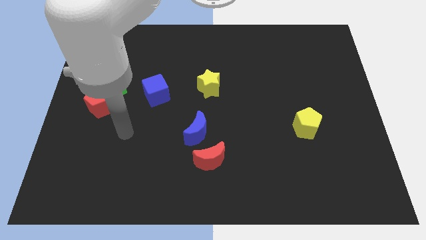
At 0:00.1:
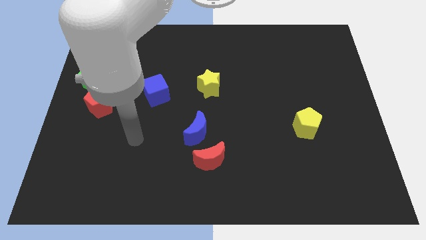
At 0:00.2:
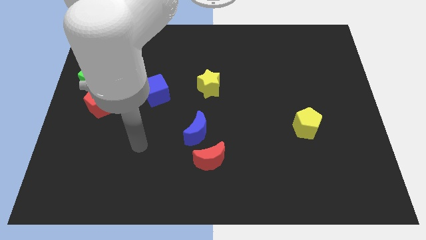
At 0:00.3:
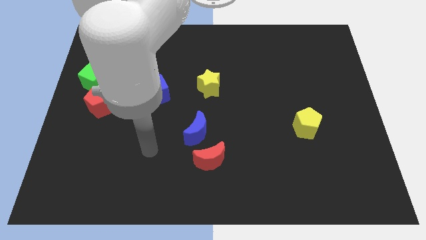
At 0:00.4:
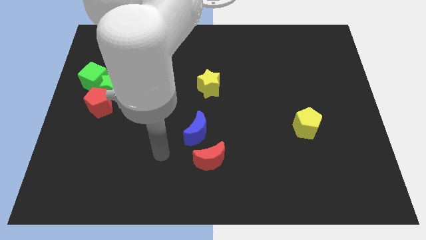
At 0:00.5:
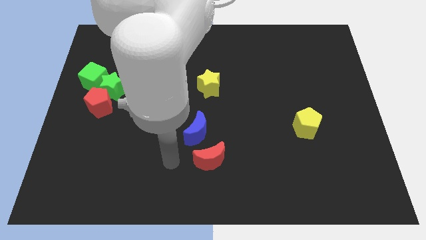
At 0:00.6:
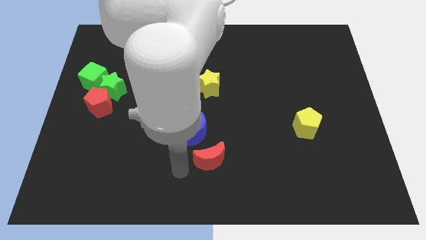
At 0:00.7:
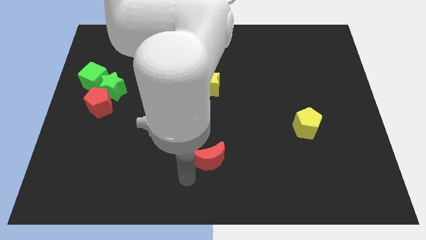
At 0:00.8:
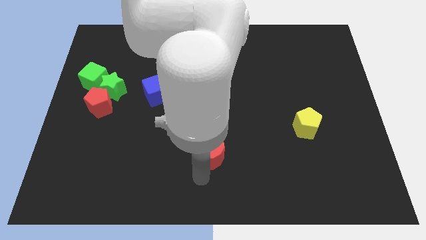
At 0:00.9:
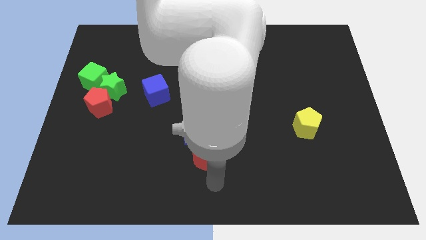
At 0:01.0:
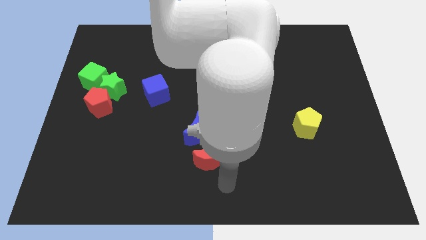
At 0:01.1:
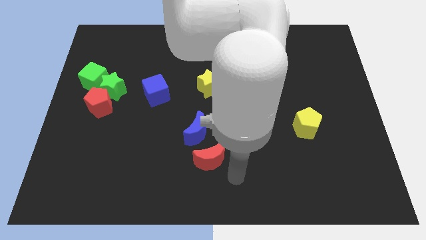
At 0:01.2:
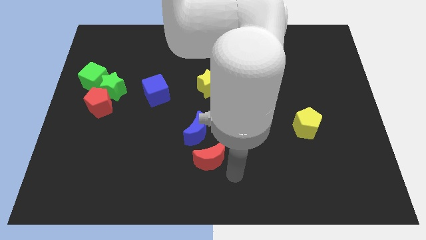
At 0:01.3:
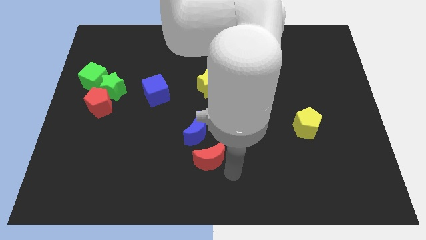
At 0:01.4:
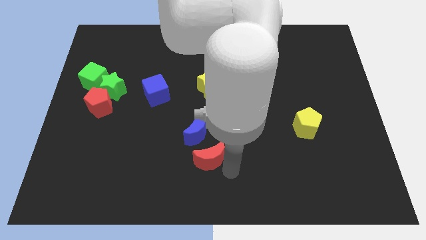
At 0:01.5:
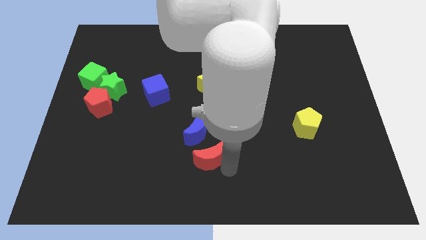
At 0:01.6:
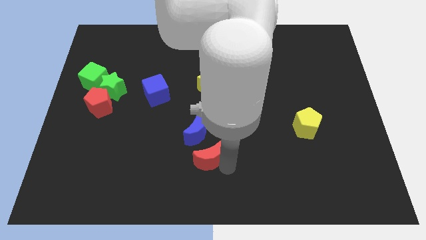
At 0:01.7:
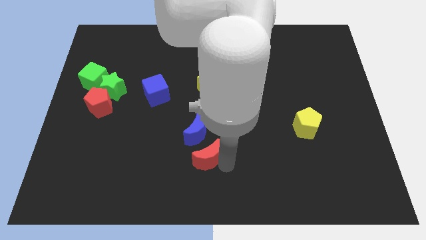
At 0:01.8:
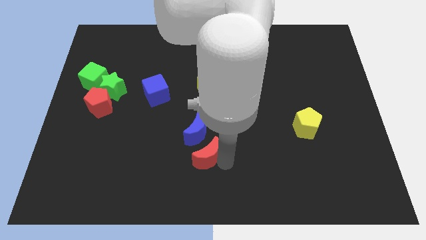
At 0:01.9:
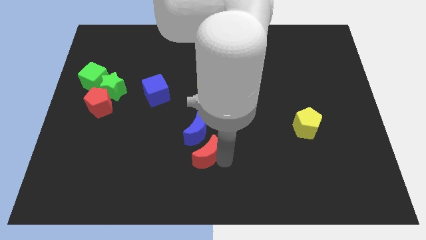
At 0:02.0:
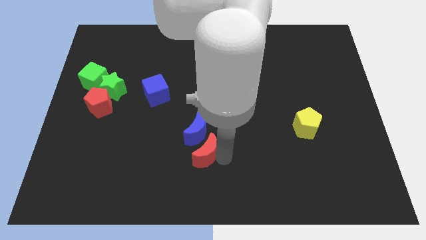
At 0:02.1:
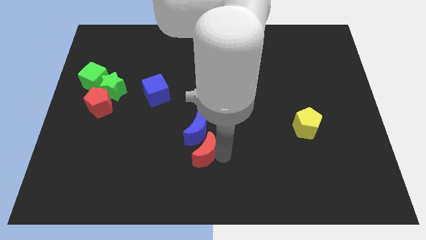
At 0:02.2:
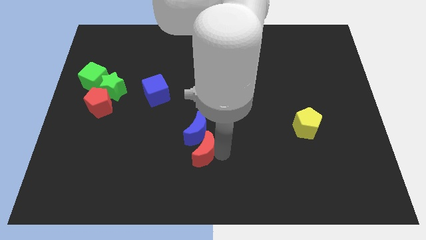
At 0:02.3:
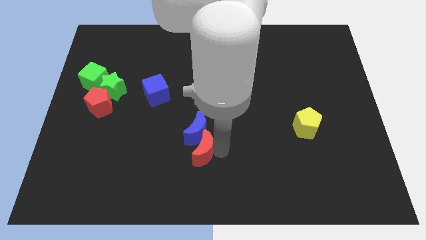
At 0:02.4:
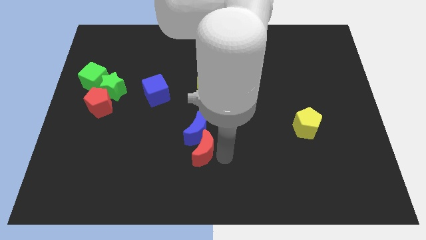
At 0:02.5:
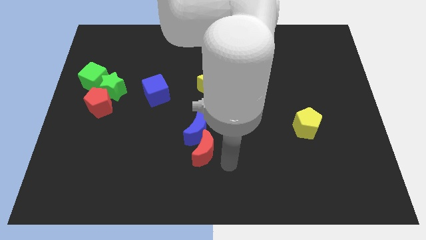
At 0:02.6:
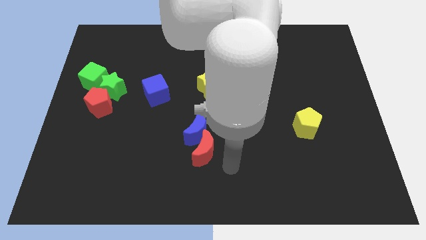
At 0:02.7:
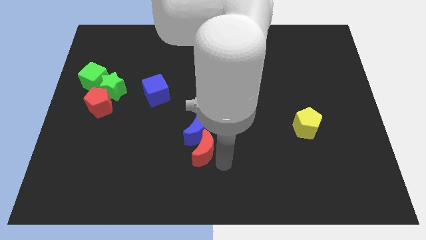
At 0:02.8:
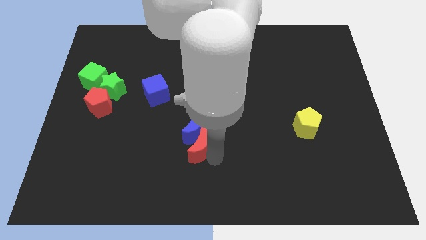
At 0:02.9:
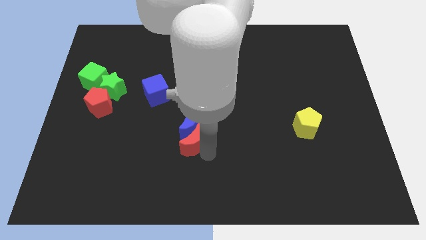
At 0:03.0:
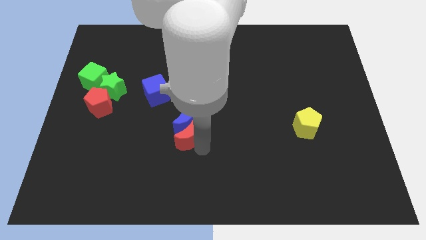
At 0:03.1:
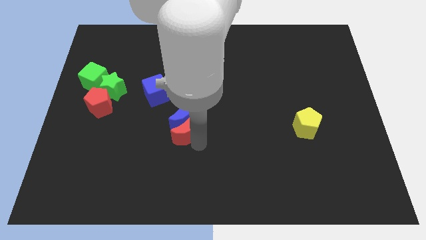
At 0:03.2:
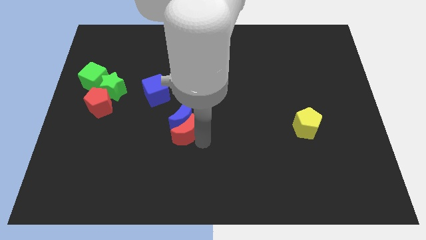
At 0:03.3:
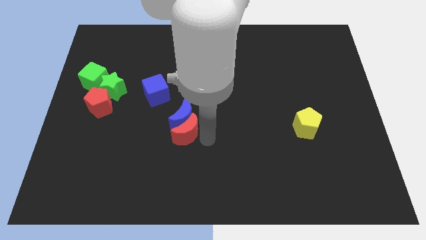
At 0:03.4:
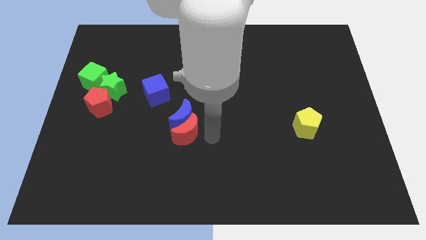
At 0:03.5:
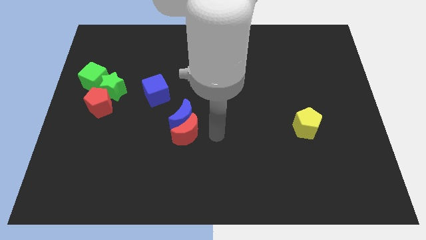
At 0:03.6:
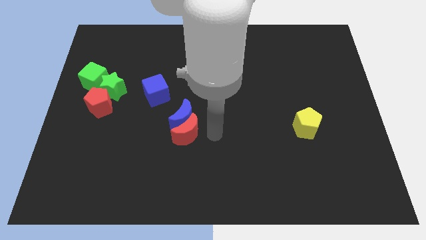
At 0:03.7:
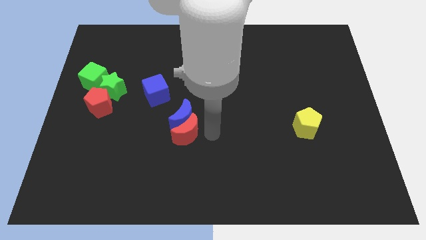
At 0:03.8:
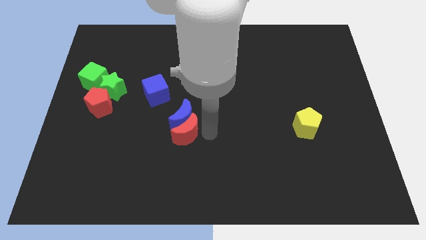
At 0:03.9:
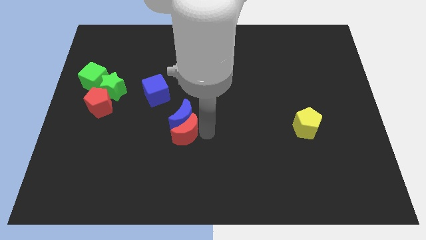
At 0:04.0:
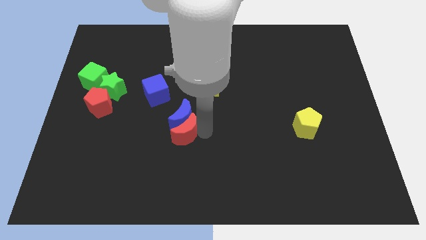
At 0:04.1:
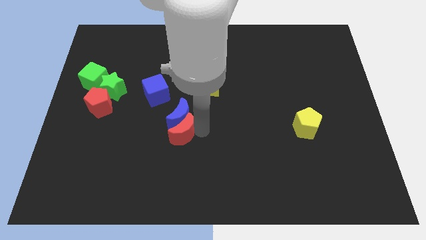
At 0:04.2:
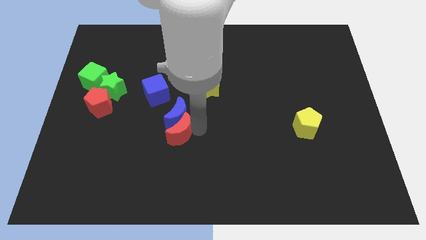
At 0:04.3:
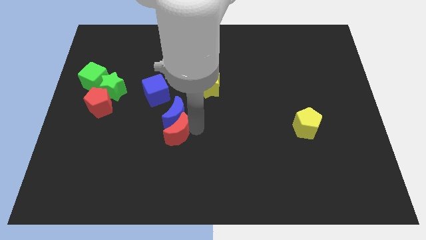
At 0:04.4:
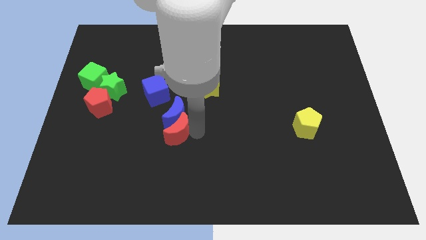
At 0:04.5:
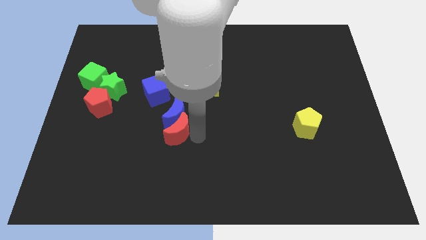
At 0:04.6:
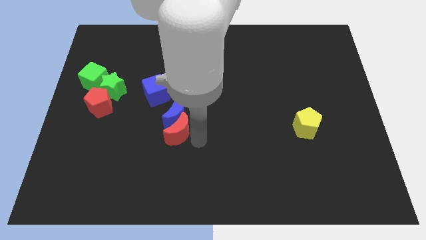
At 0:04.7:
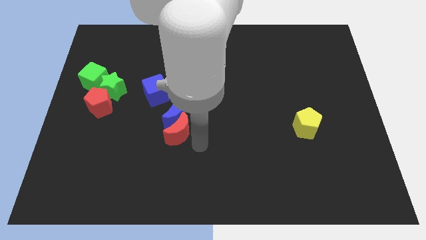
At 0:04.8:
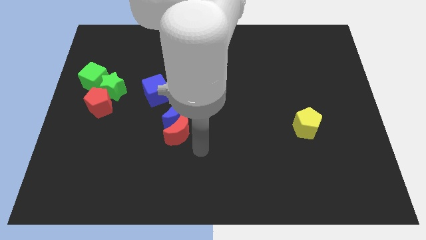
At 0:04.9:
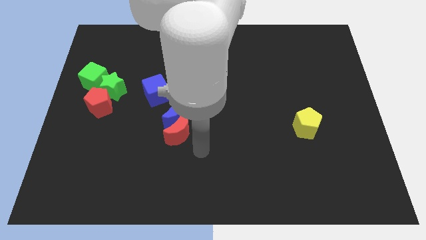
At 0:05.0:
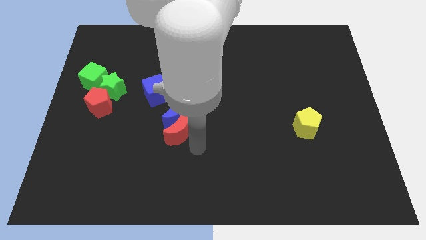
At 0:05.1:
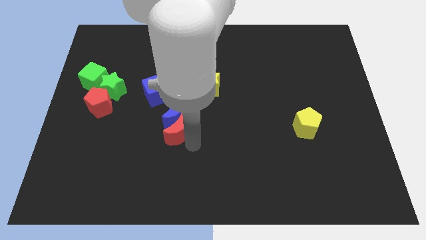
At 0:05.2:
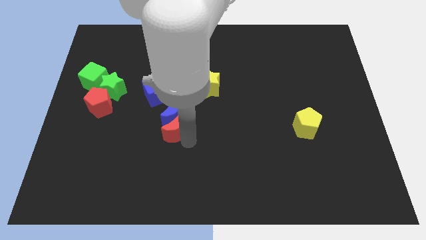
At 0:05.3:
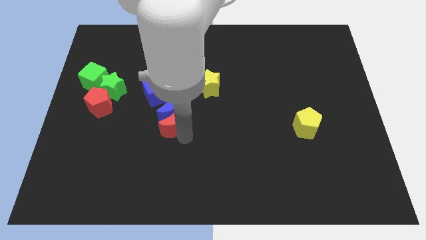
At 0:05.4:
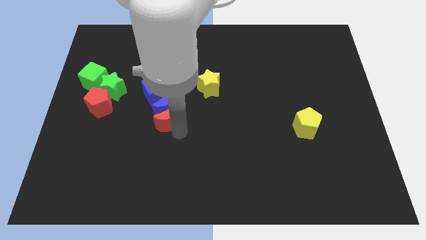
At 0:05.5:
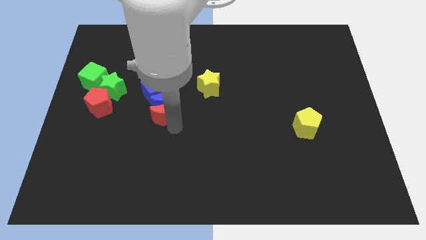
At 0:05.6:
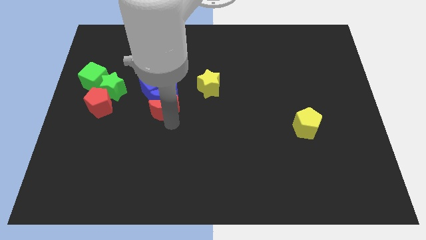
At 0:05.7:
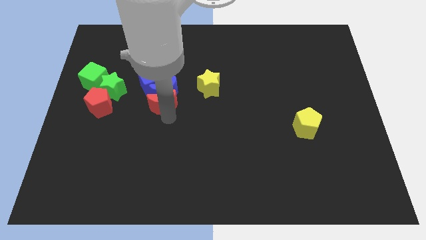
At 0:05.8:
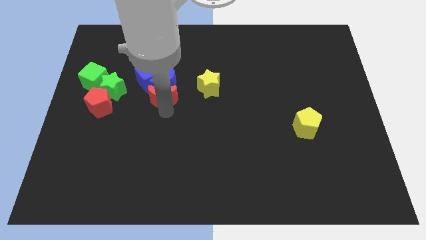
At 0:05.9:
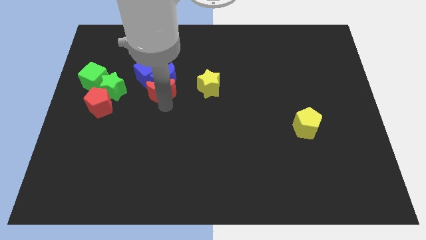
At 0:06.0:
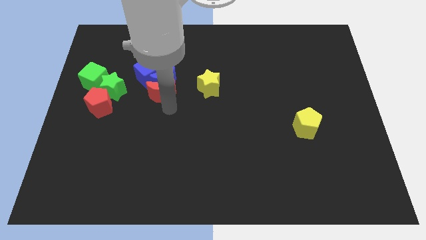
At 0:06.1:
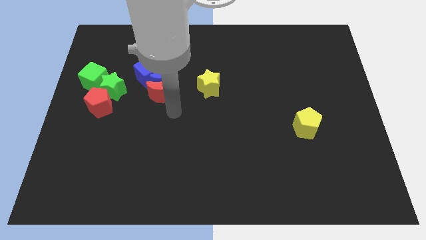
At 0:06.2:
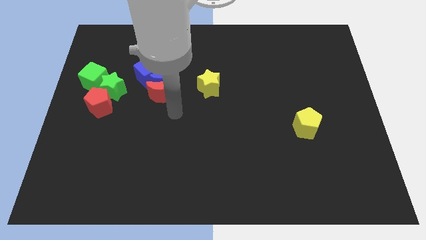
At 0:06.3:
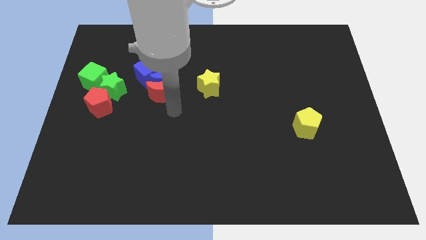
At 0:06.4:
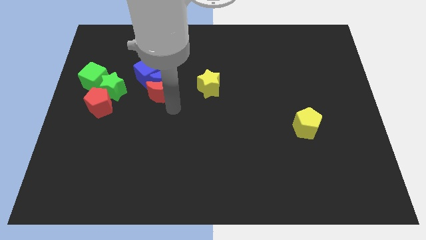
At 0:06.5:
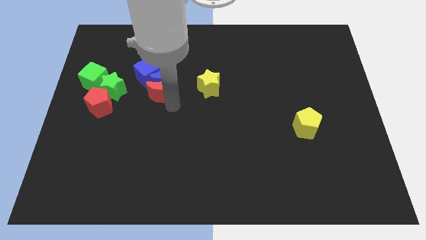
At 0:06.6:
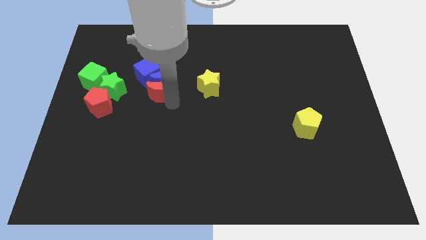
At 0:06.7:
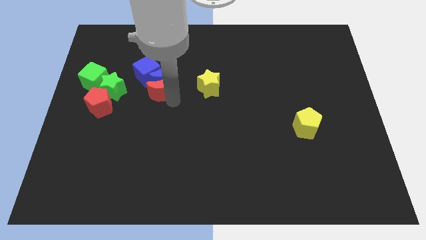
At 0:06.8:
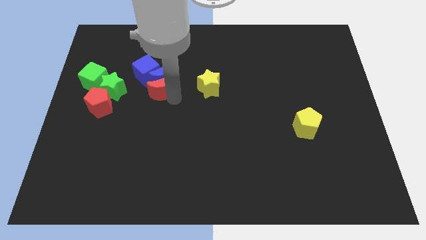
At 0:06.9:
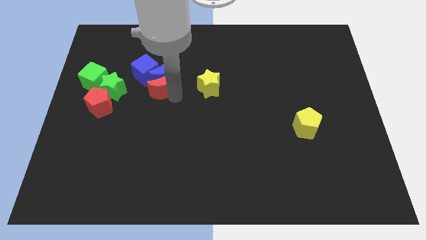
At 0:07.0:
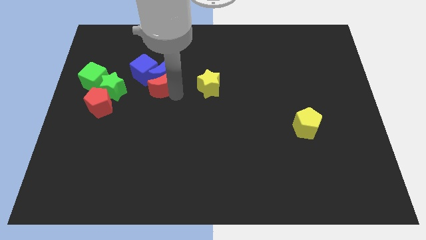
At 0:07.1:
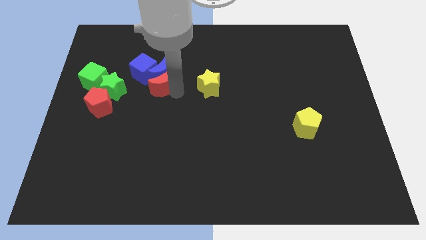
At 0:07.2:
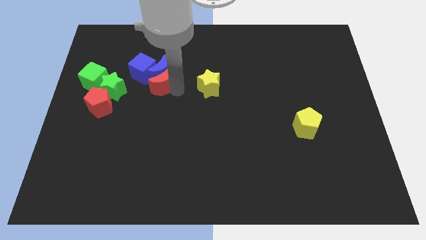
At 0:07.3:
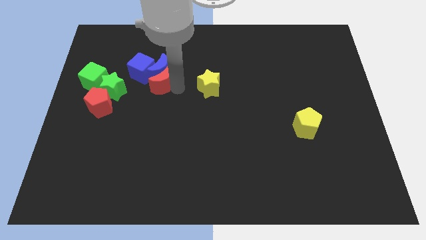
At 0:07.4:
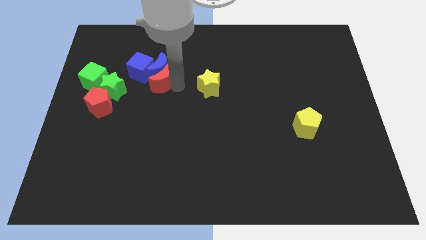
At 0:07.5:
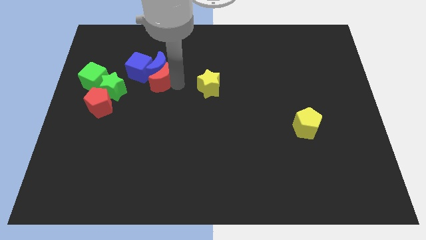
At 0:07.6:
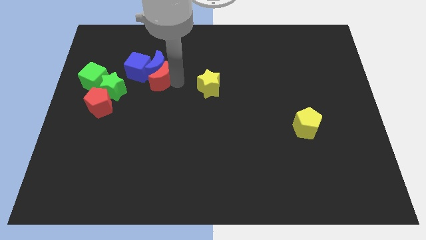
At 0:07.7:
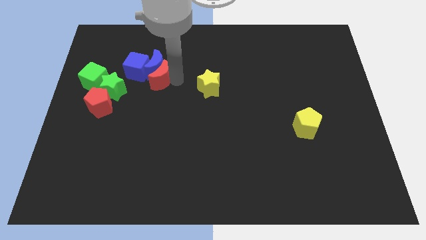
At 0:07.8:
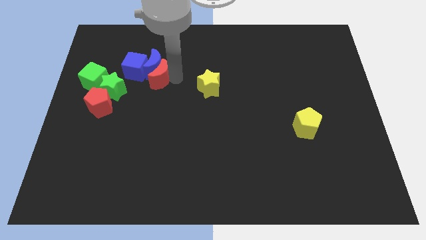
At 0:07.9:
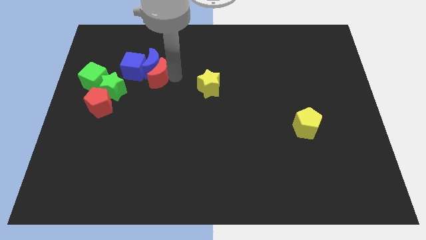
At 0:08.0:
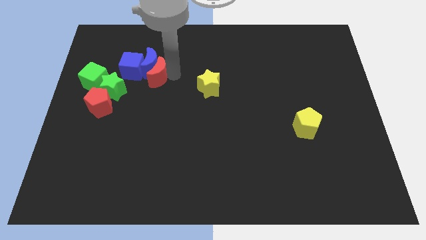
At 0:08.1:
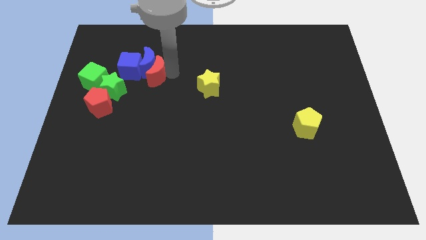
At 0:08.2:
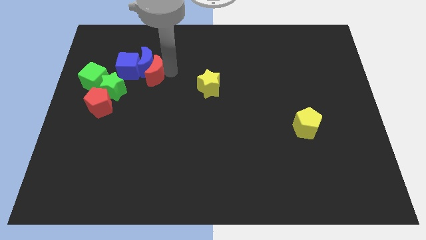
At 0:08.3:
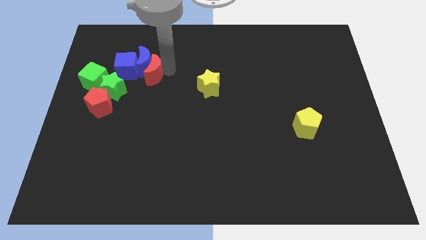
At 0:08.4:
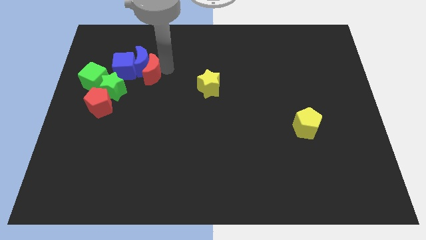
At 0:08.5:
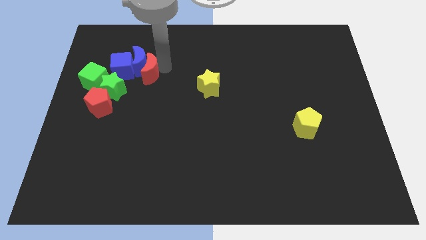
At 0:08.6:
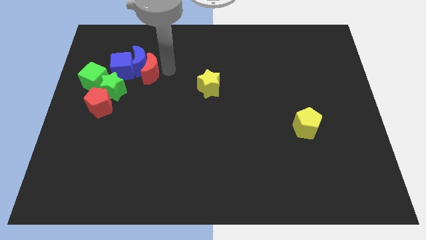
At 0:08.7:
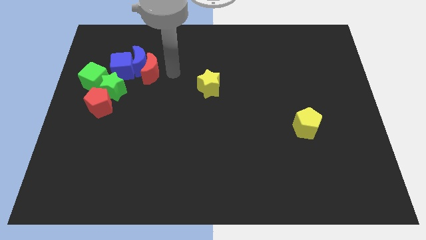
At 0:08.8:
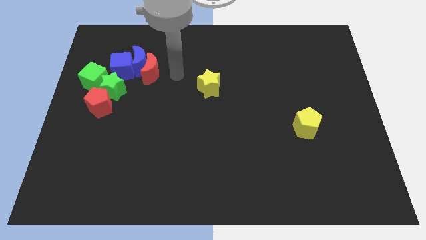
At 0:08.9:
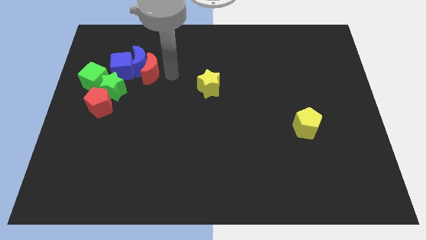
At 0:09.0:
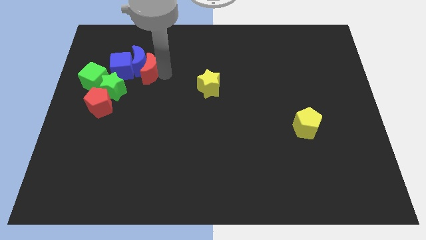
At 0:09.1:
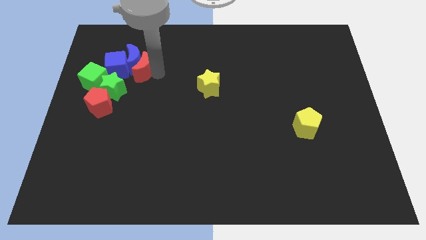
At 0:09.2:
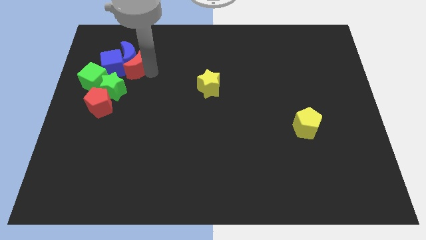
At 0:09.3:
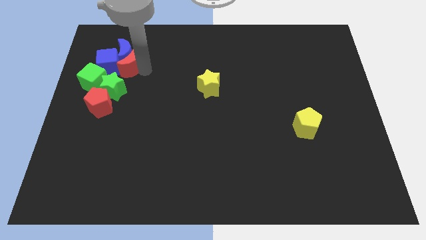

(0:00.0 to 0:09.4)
move the red moon next to the blue cube
